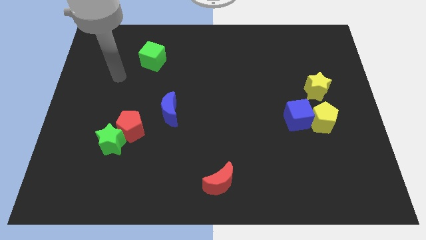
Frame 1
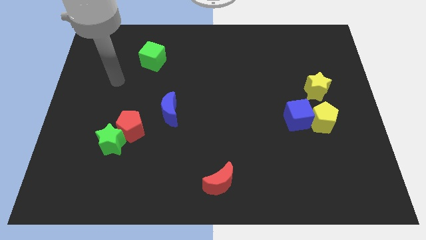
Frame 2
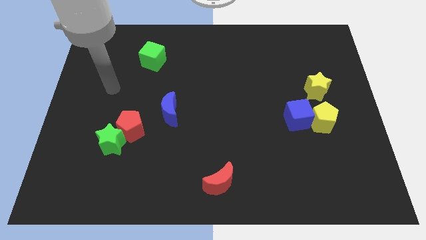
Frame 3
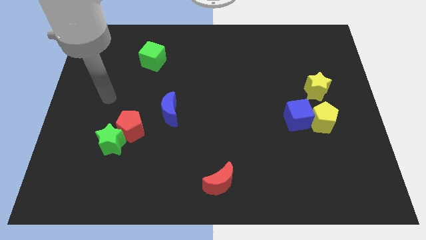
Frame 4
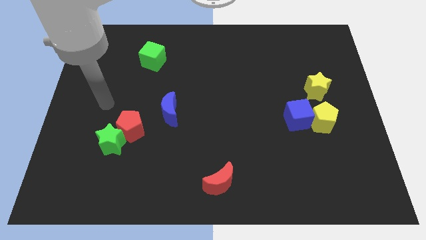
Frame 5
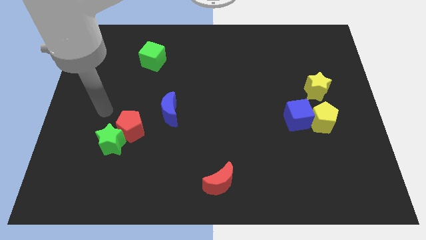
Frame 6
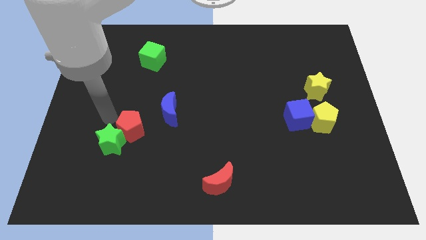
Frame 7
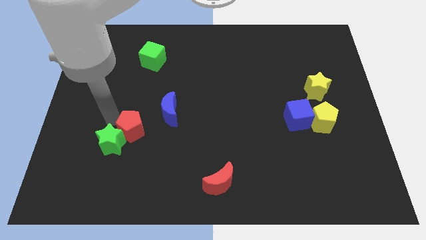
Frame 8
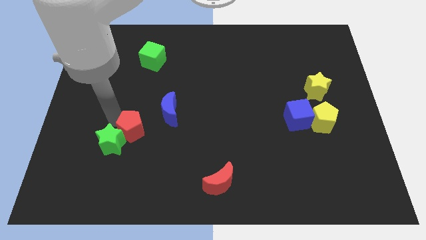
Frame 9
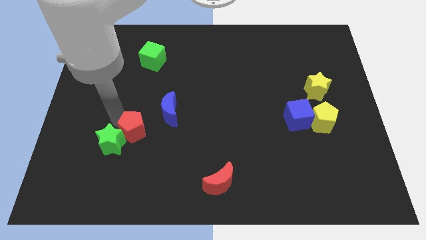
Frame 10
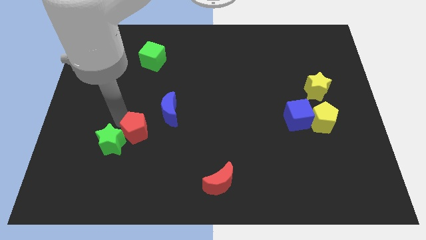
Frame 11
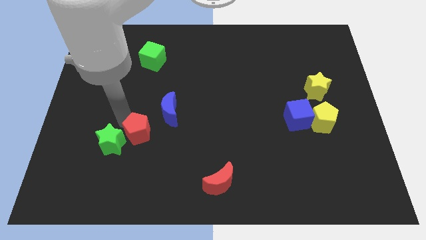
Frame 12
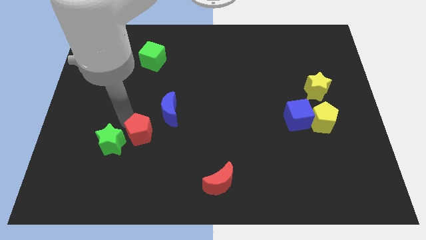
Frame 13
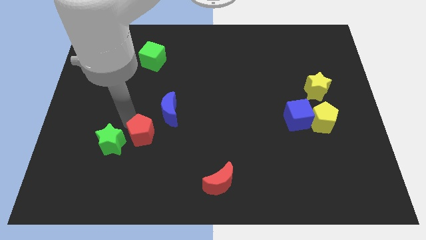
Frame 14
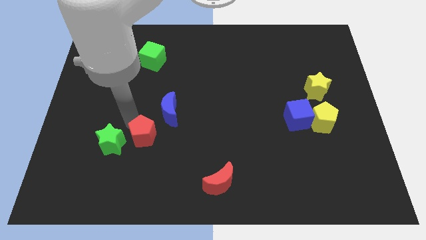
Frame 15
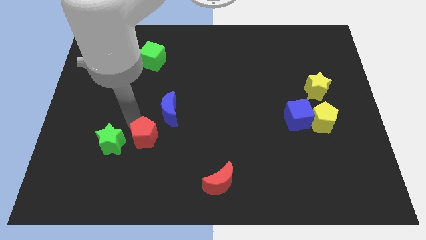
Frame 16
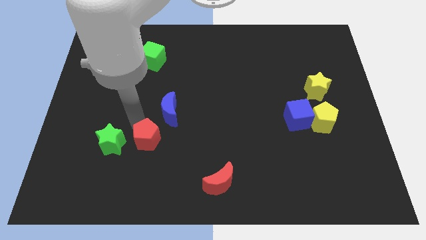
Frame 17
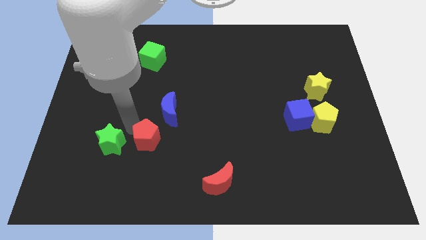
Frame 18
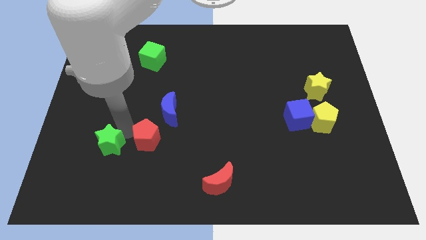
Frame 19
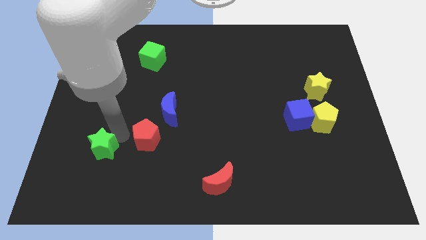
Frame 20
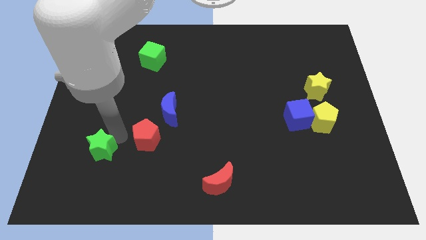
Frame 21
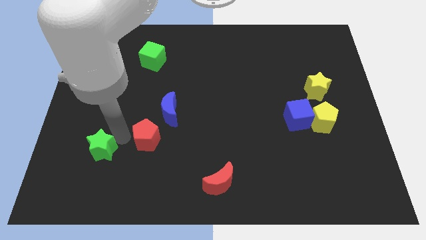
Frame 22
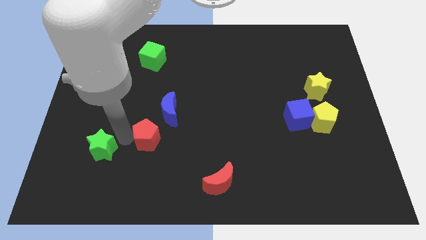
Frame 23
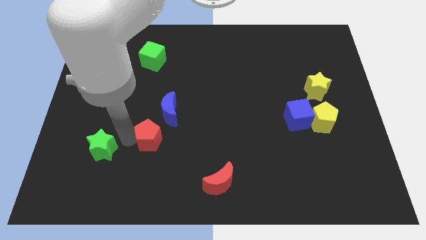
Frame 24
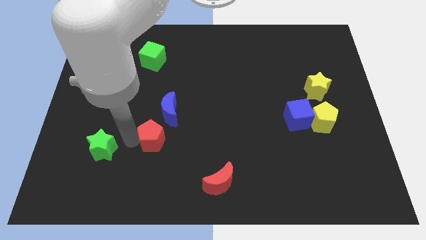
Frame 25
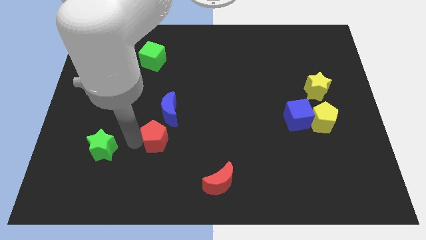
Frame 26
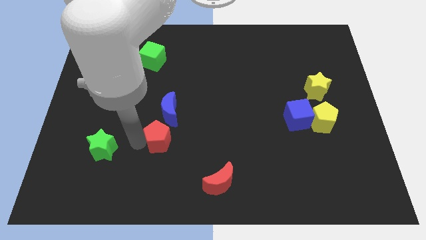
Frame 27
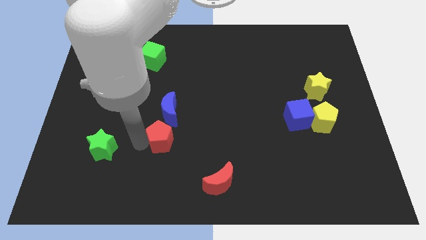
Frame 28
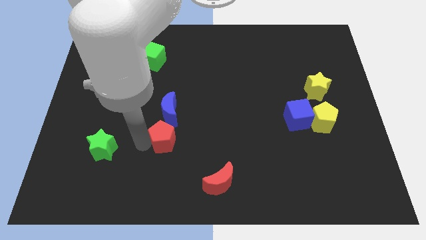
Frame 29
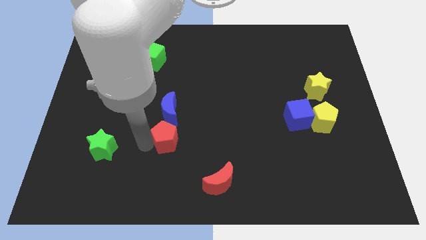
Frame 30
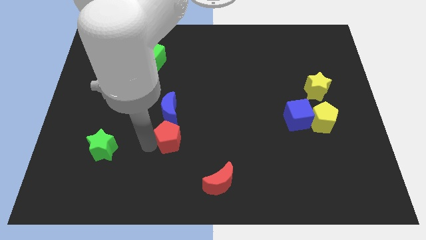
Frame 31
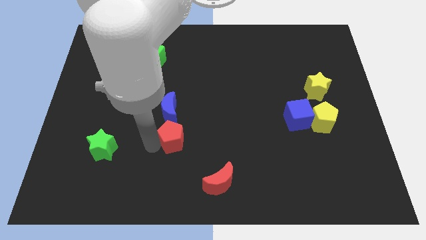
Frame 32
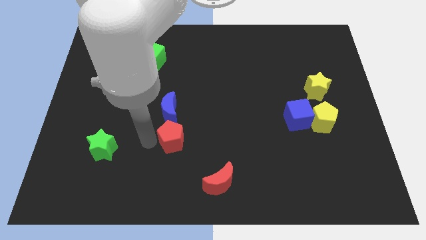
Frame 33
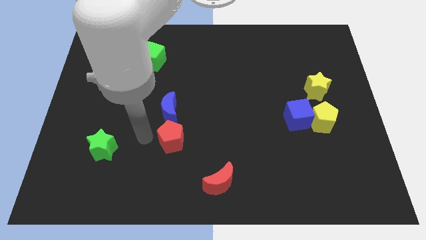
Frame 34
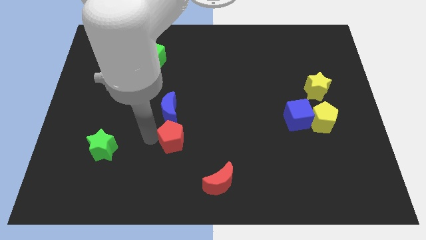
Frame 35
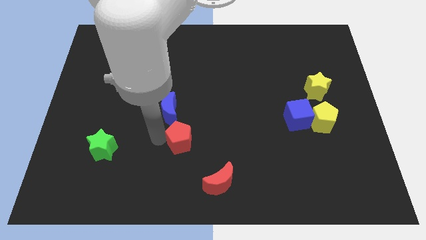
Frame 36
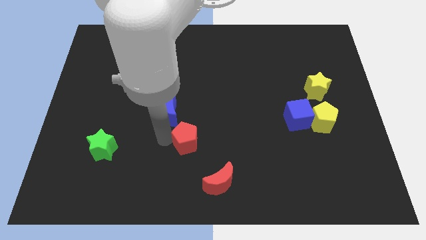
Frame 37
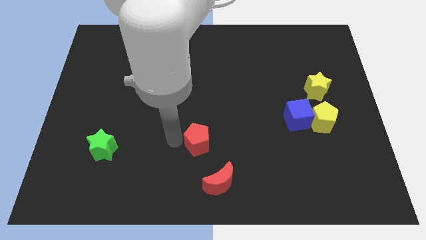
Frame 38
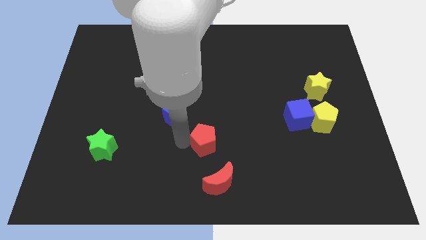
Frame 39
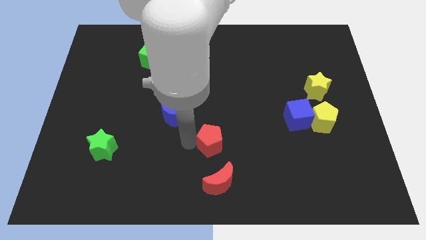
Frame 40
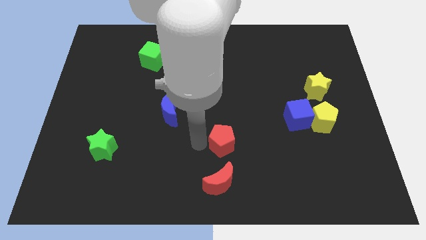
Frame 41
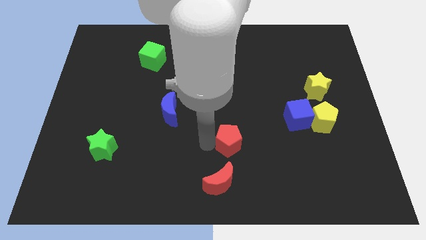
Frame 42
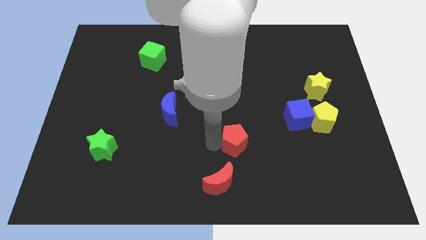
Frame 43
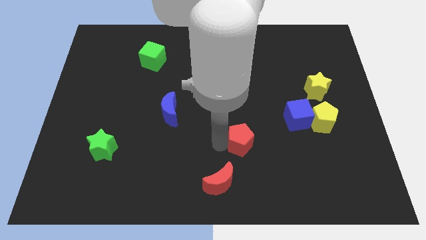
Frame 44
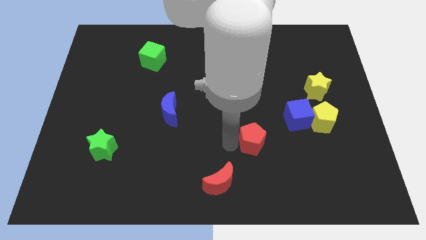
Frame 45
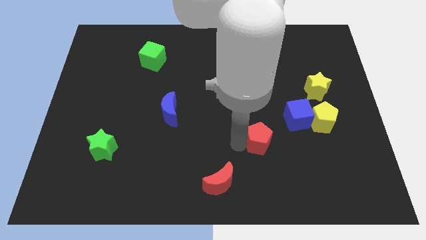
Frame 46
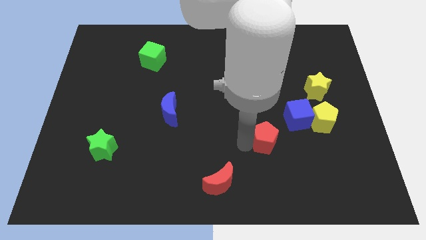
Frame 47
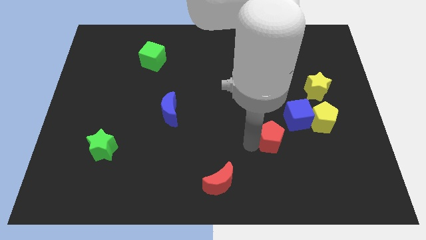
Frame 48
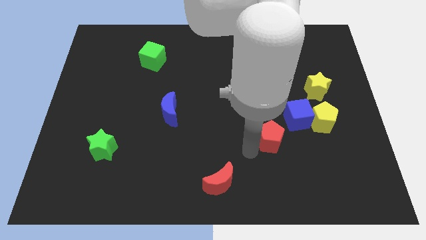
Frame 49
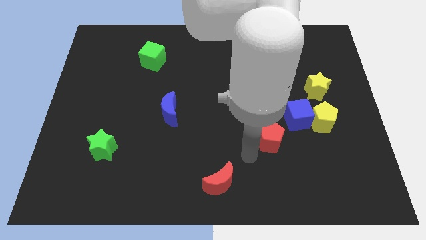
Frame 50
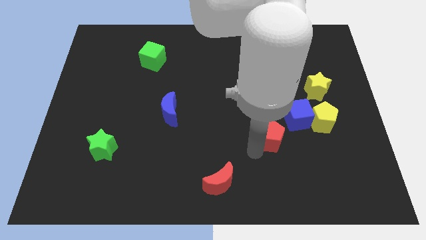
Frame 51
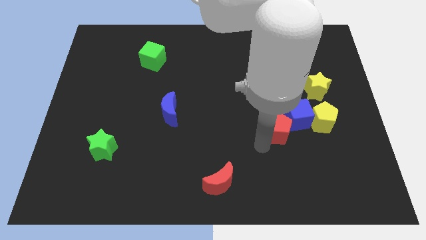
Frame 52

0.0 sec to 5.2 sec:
put the red pentagon next to the blue cube

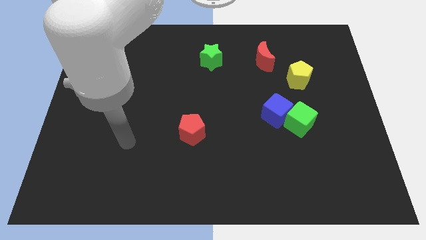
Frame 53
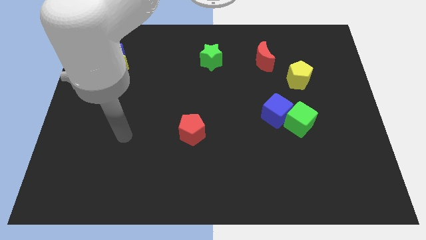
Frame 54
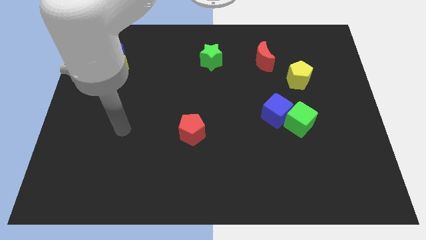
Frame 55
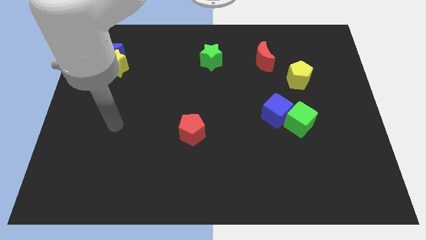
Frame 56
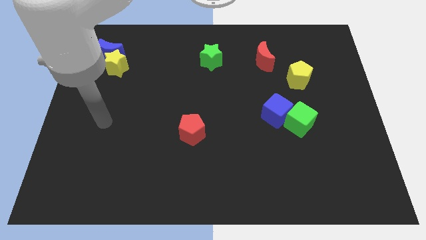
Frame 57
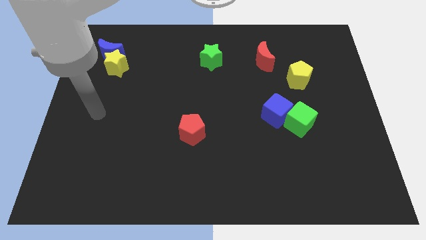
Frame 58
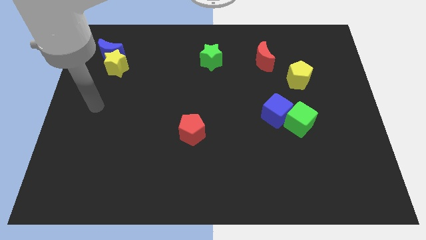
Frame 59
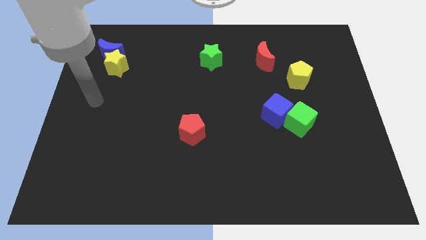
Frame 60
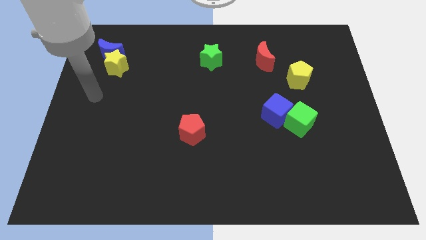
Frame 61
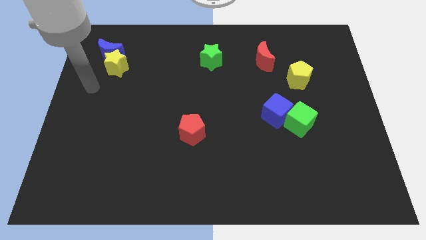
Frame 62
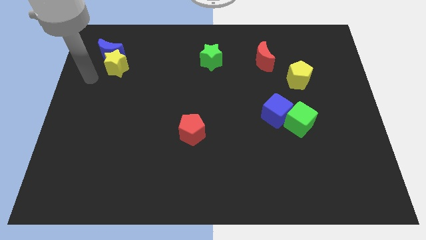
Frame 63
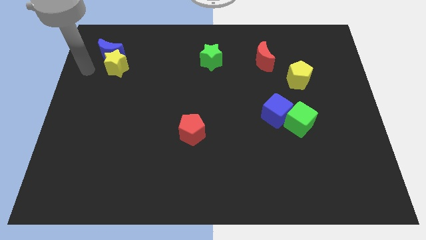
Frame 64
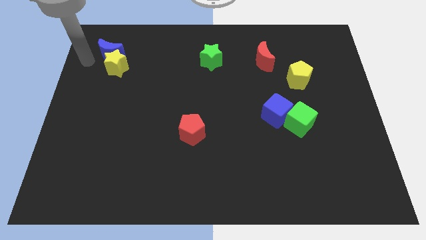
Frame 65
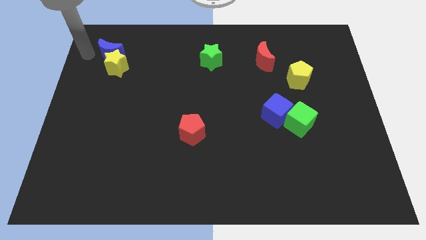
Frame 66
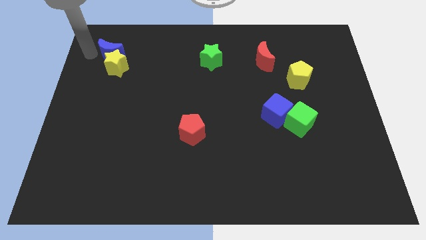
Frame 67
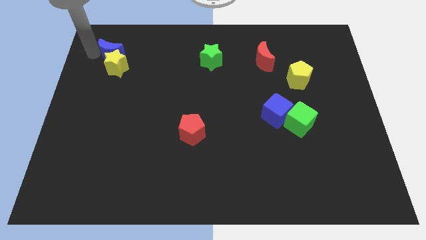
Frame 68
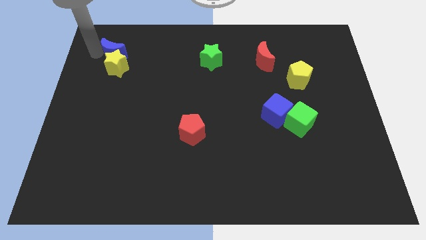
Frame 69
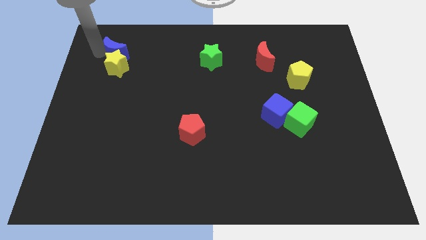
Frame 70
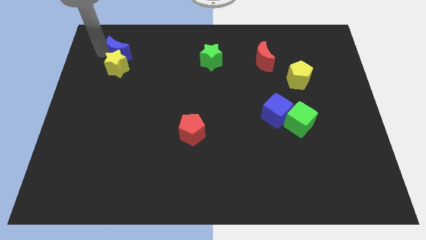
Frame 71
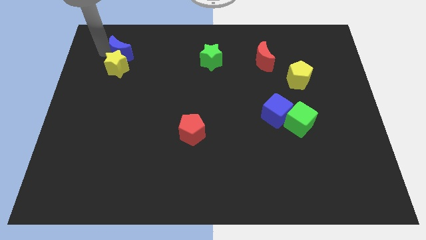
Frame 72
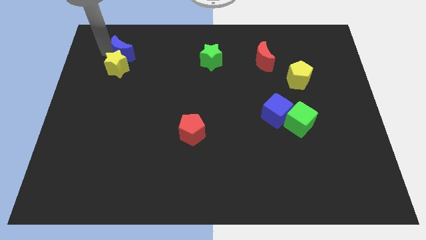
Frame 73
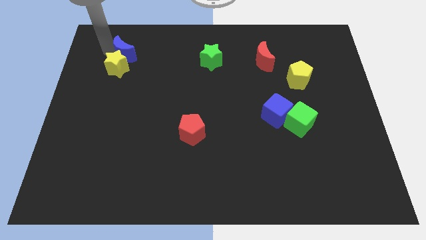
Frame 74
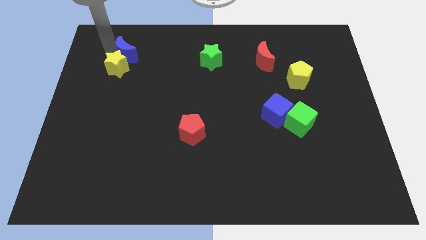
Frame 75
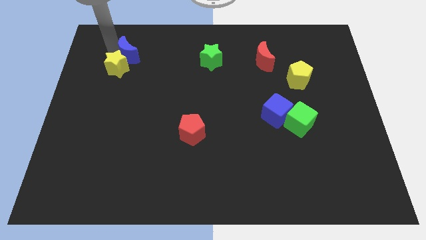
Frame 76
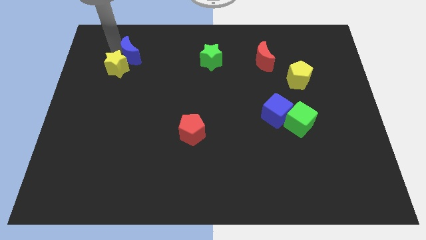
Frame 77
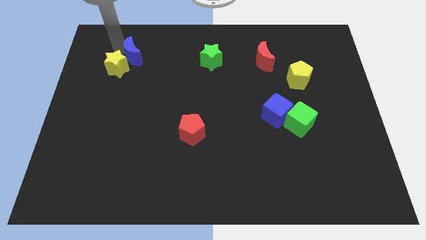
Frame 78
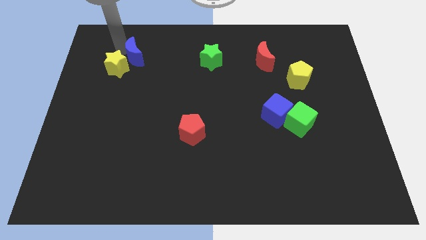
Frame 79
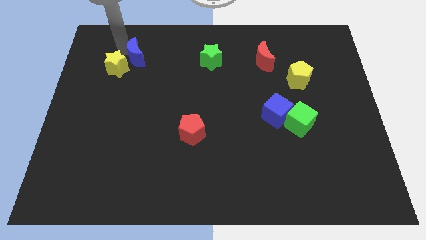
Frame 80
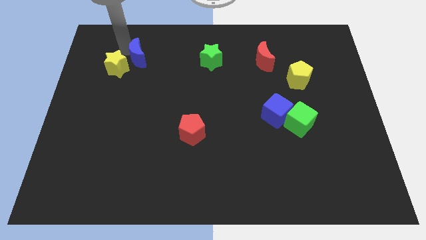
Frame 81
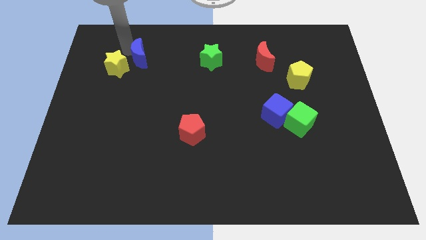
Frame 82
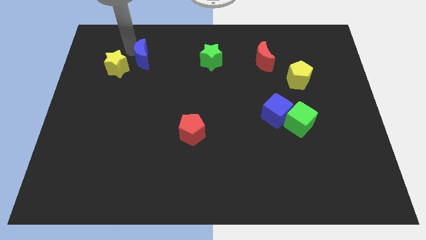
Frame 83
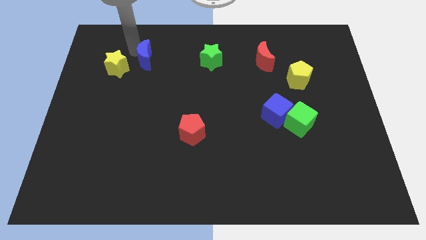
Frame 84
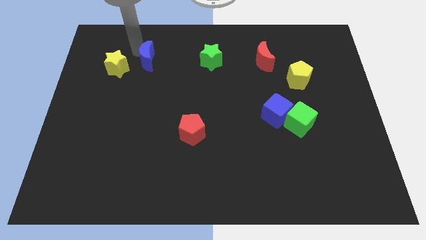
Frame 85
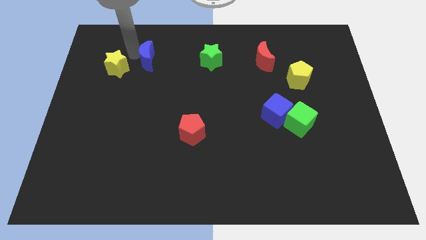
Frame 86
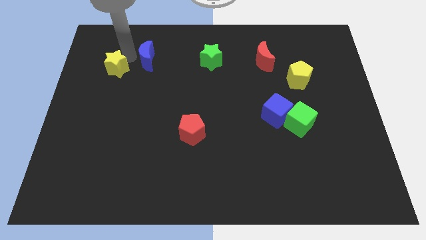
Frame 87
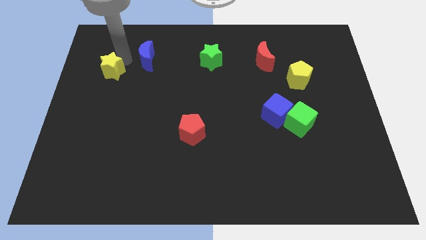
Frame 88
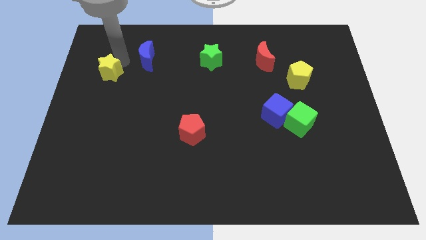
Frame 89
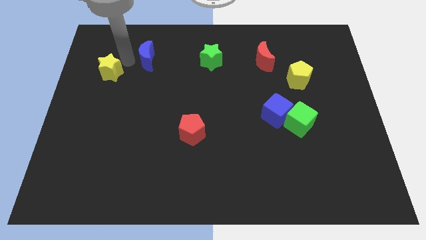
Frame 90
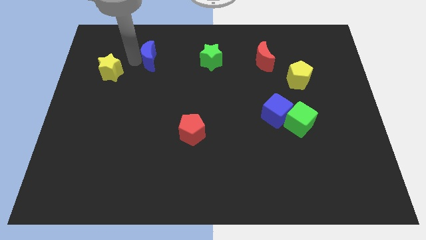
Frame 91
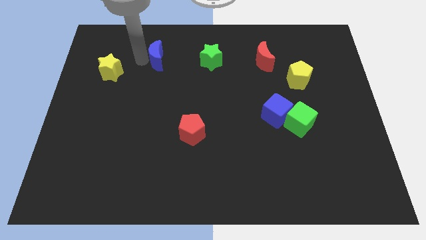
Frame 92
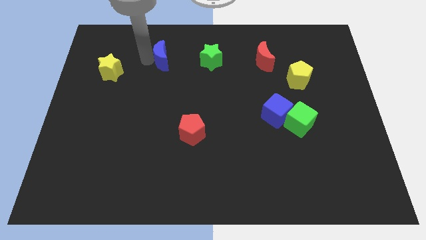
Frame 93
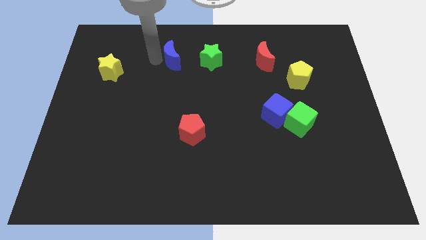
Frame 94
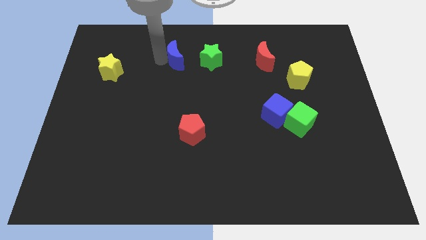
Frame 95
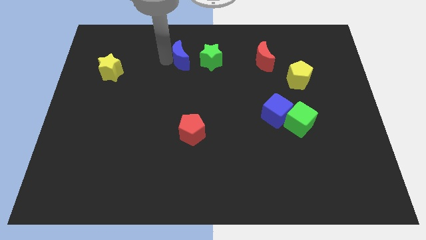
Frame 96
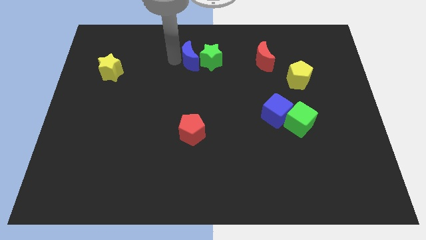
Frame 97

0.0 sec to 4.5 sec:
put the blue moon to the green star
